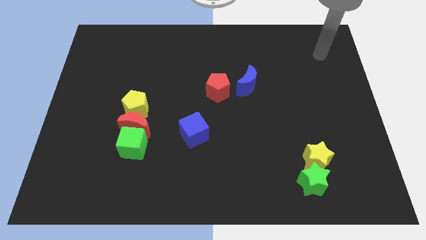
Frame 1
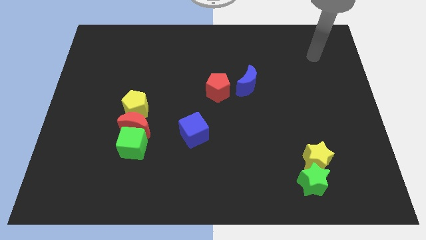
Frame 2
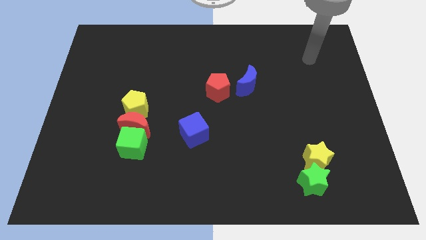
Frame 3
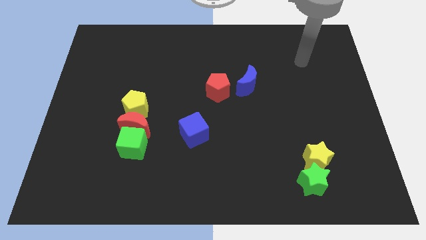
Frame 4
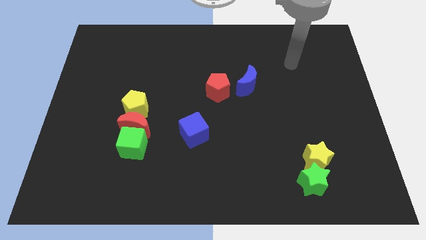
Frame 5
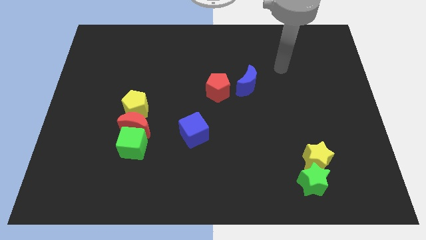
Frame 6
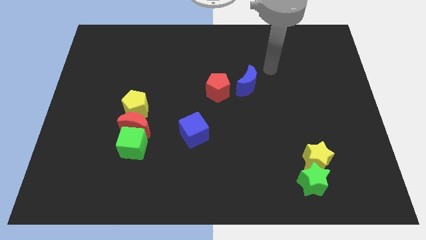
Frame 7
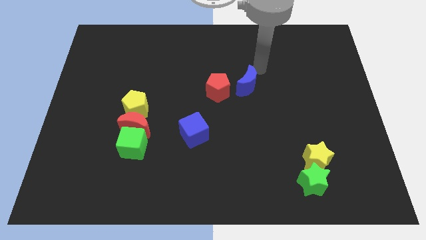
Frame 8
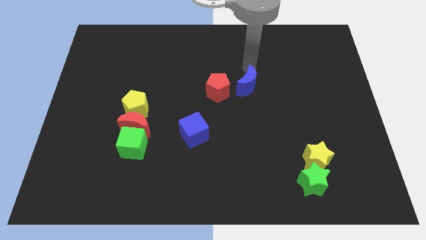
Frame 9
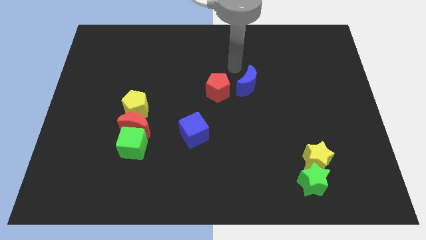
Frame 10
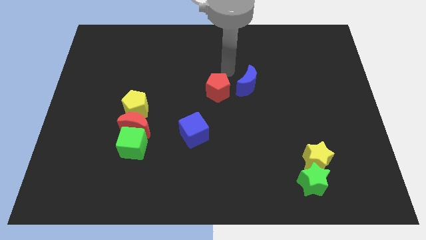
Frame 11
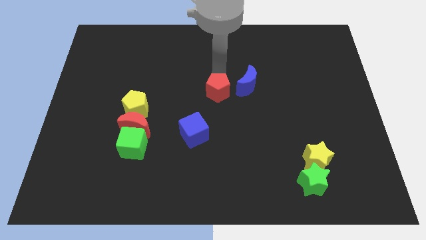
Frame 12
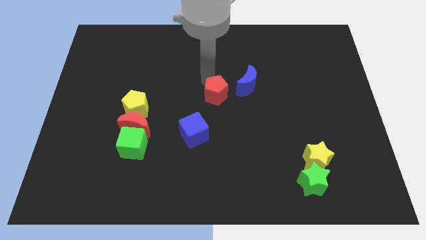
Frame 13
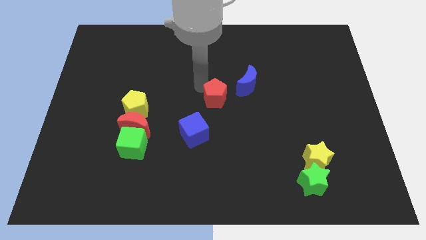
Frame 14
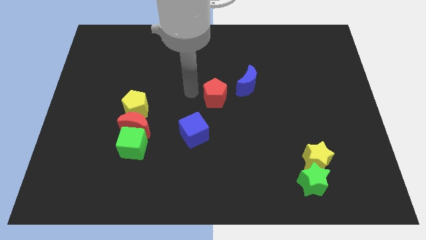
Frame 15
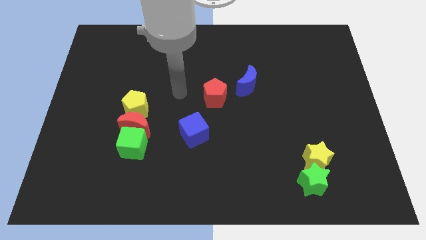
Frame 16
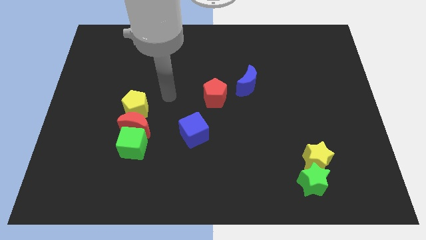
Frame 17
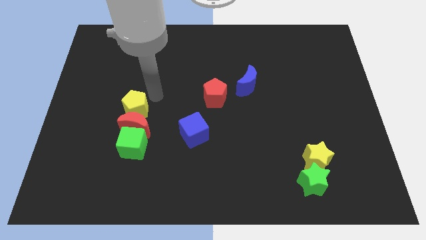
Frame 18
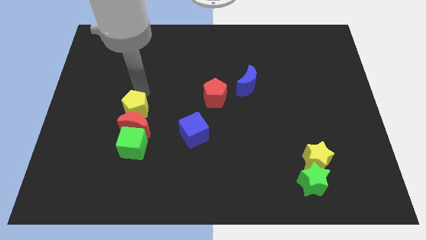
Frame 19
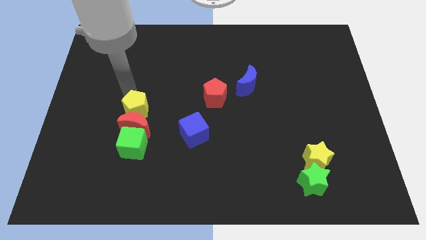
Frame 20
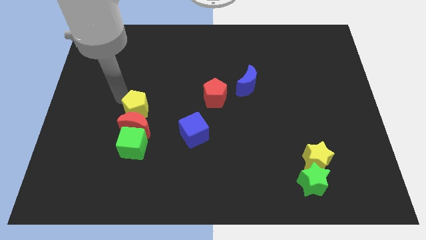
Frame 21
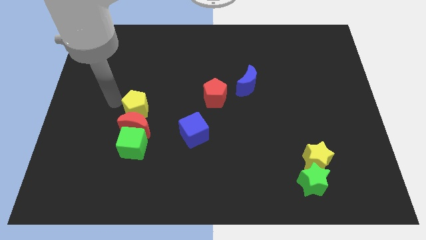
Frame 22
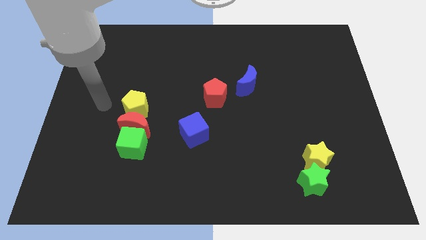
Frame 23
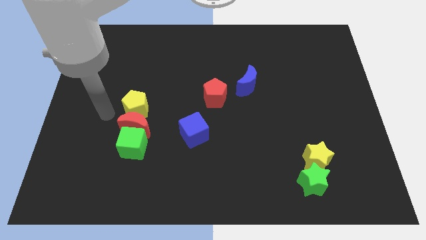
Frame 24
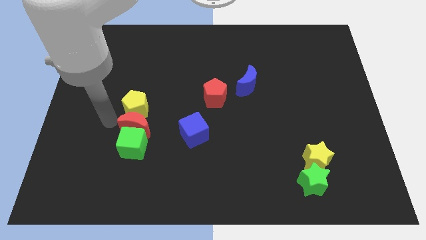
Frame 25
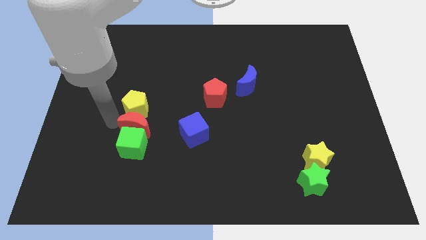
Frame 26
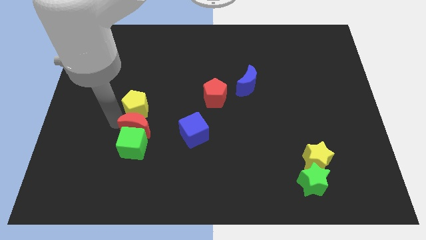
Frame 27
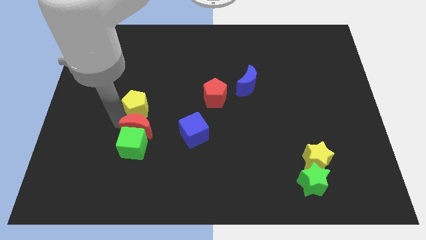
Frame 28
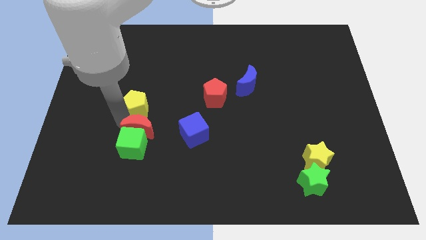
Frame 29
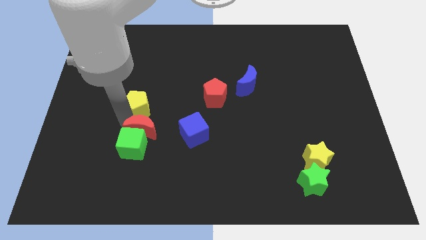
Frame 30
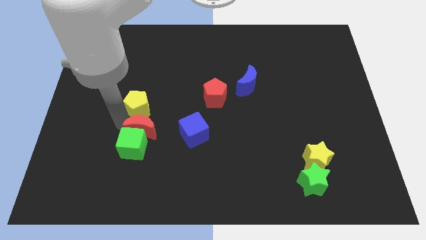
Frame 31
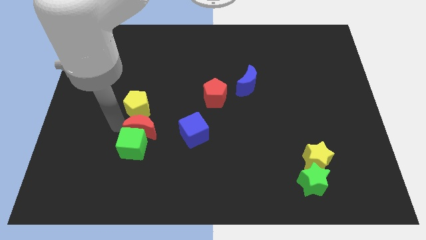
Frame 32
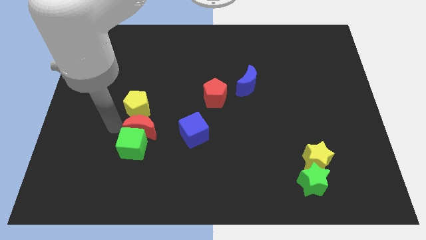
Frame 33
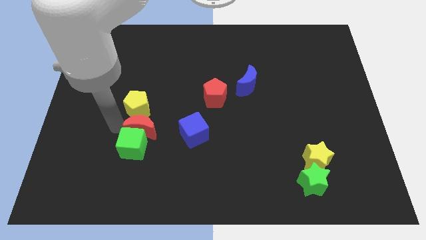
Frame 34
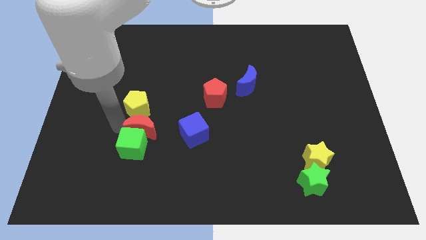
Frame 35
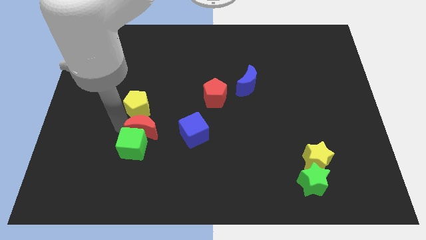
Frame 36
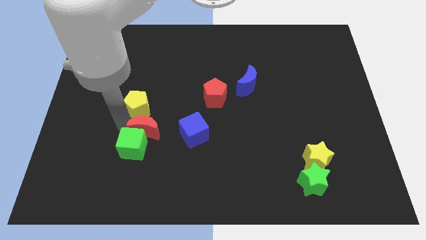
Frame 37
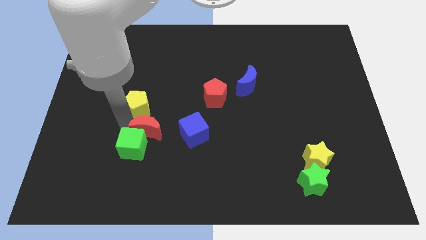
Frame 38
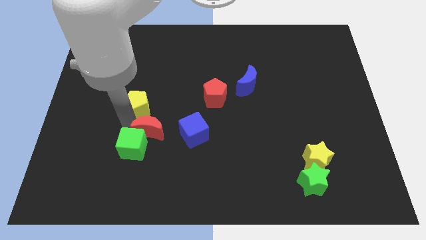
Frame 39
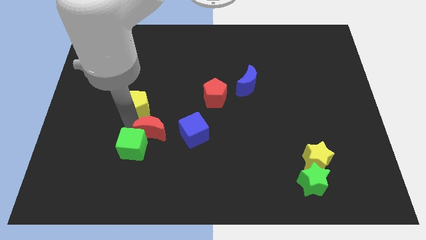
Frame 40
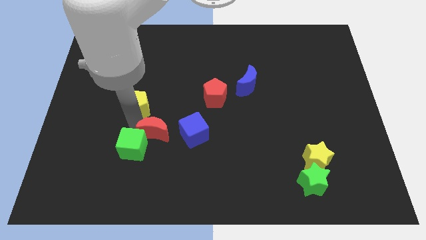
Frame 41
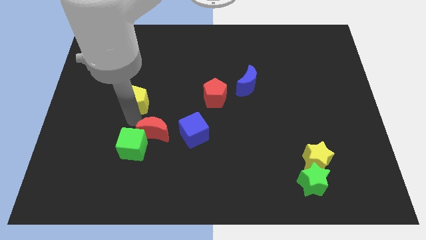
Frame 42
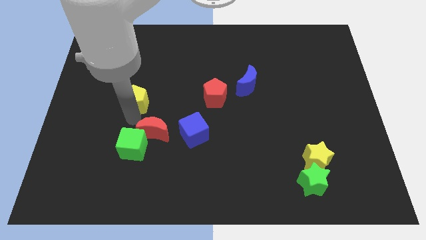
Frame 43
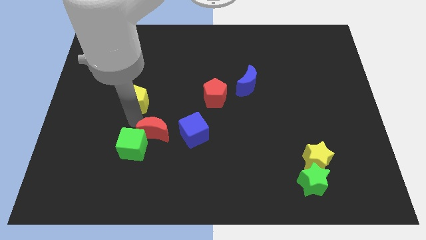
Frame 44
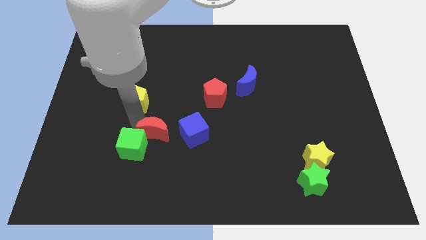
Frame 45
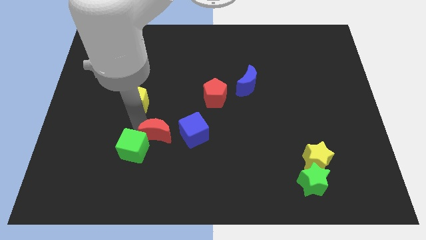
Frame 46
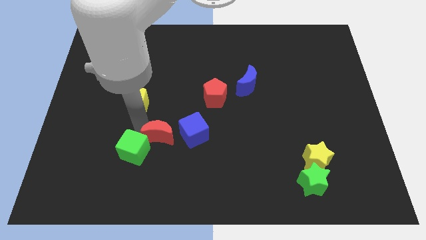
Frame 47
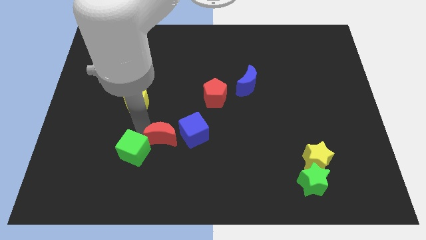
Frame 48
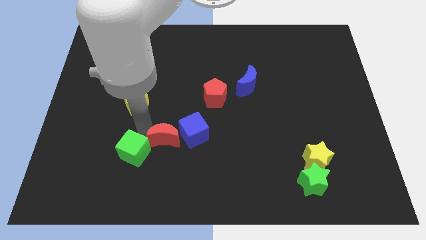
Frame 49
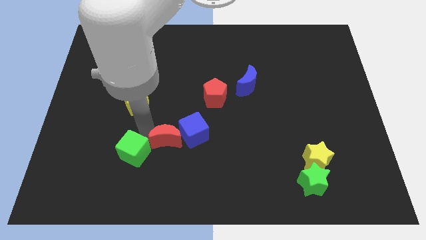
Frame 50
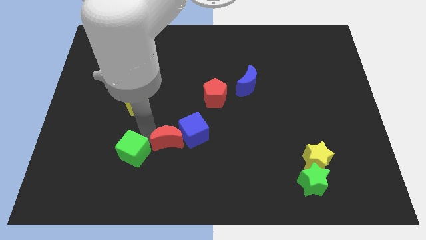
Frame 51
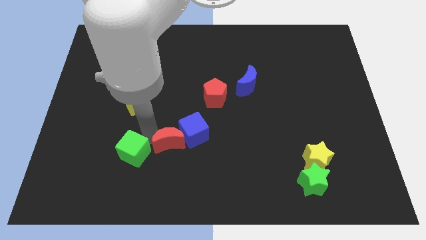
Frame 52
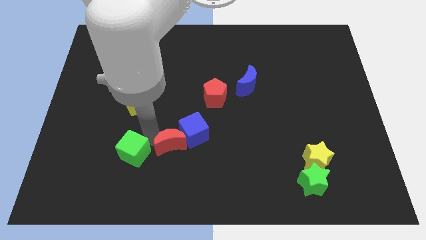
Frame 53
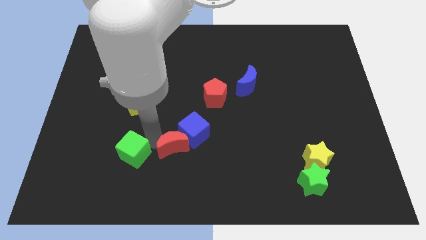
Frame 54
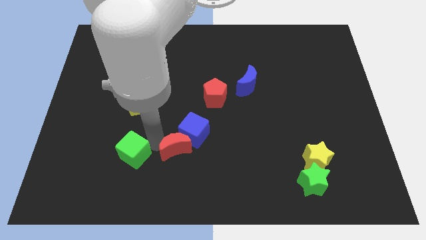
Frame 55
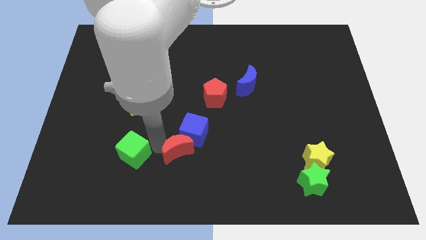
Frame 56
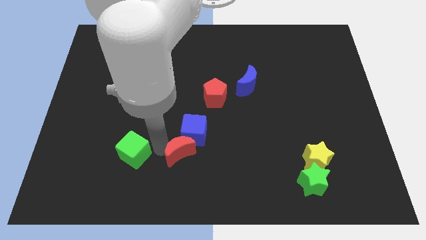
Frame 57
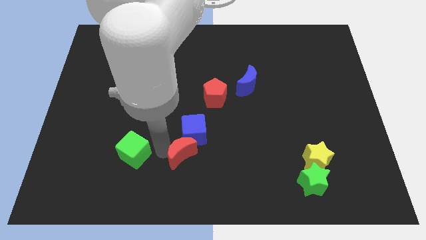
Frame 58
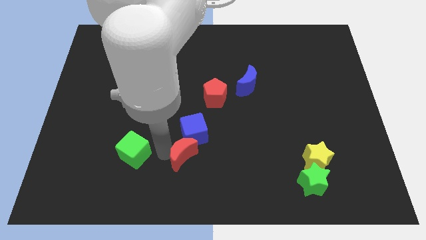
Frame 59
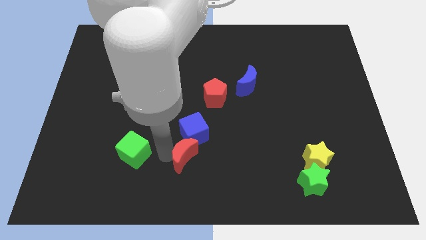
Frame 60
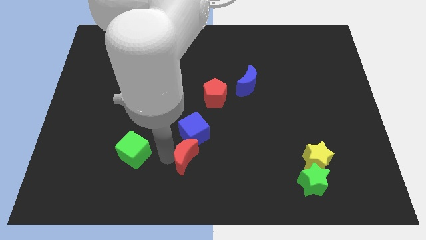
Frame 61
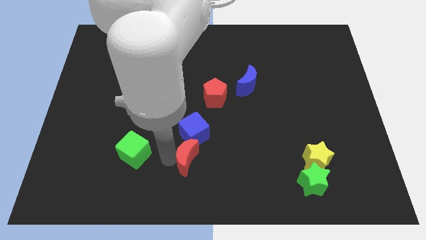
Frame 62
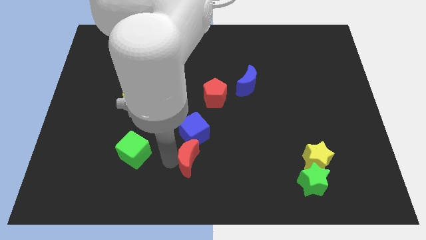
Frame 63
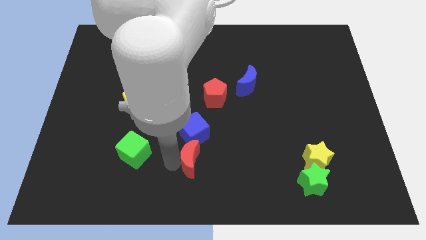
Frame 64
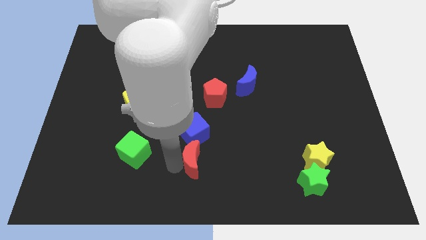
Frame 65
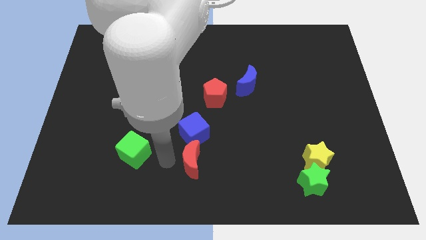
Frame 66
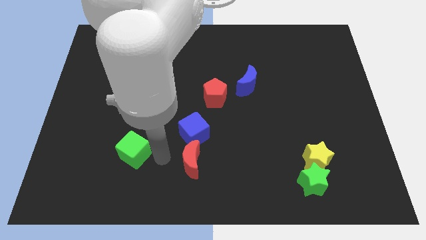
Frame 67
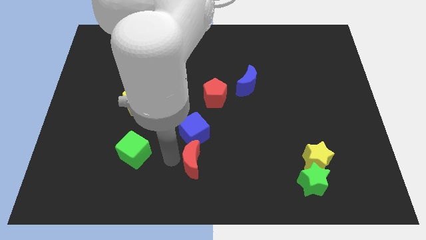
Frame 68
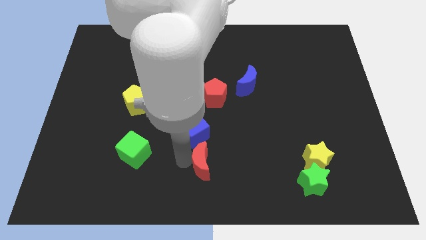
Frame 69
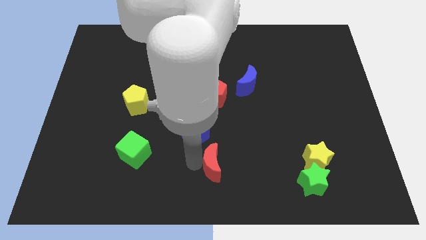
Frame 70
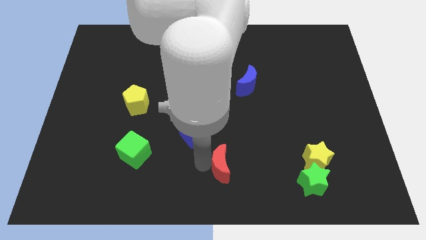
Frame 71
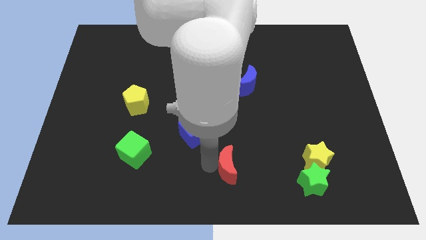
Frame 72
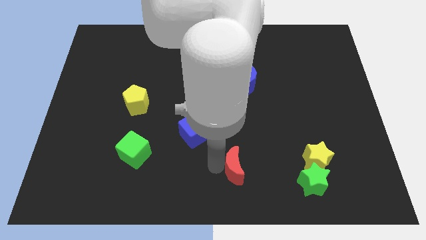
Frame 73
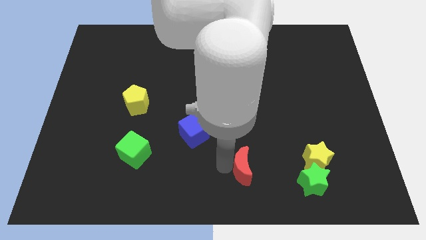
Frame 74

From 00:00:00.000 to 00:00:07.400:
slide the red moon to the left side of the green star

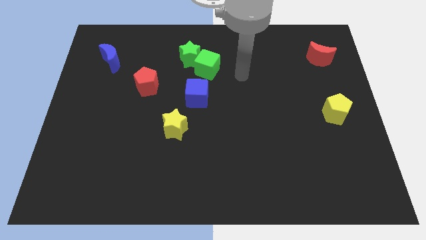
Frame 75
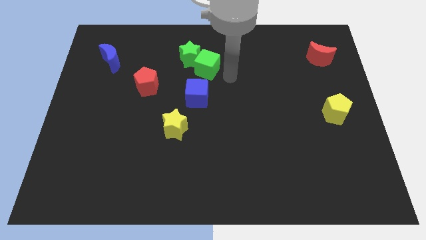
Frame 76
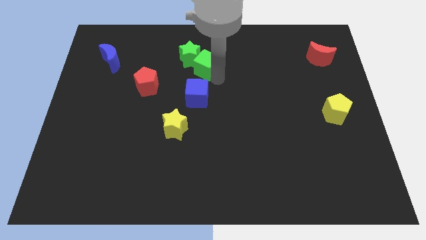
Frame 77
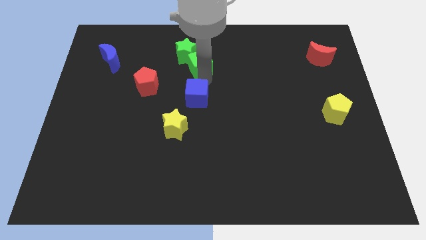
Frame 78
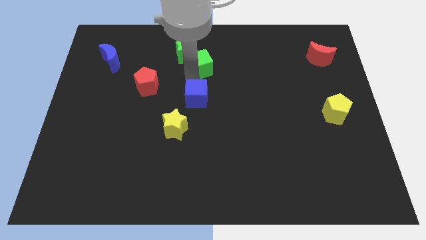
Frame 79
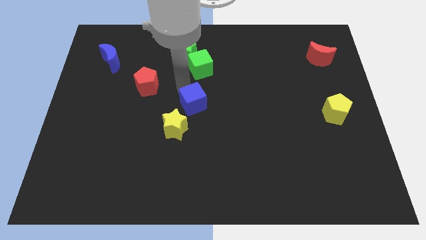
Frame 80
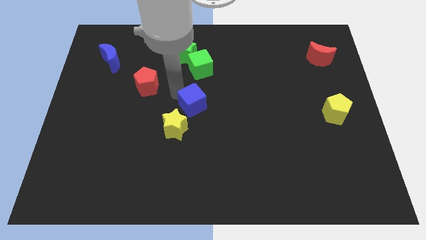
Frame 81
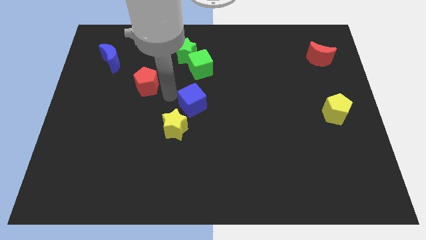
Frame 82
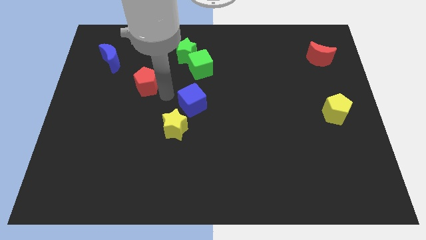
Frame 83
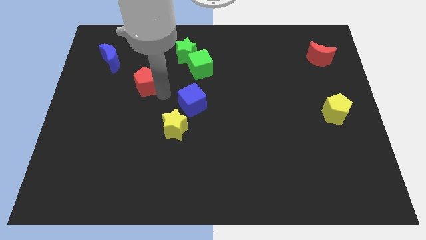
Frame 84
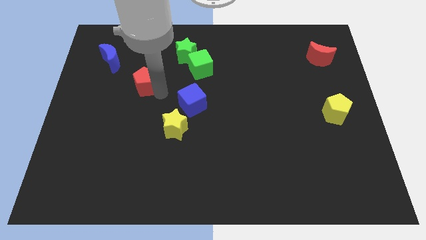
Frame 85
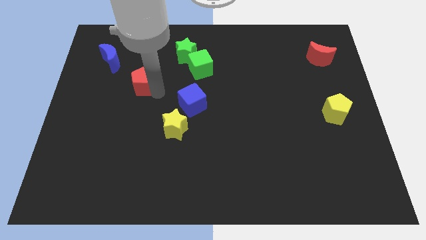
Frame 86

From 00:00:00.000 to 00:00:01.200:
slide the red pentagon to the bottom right side of the blue moon
